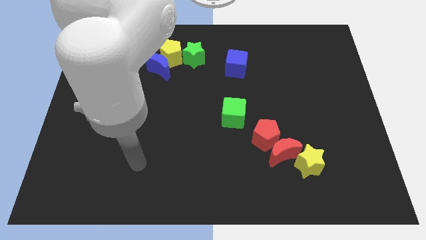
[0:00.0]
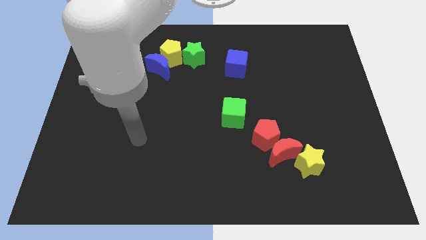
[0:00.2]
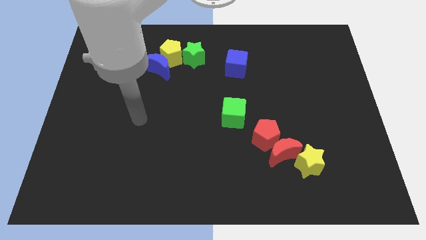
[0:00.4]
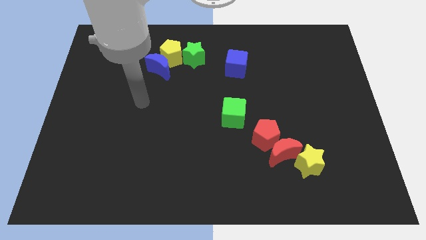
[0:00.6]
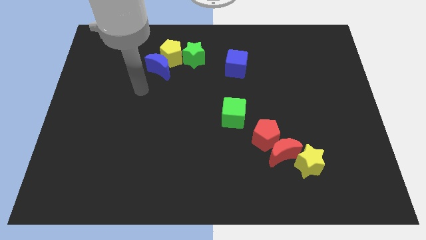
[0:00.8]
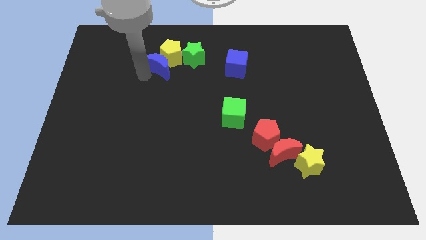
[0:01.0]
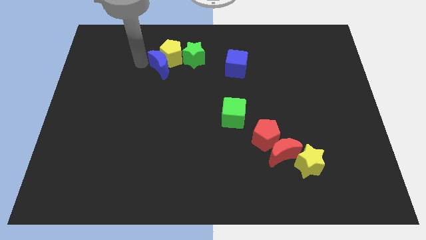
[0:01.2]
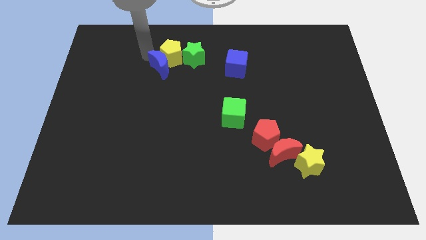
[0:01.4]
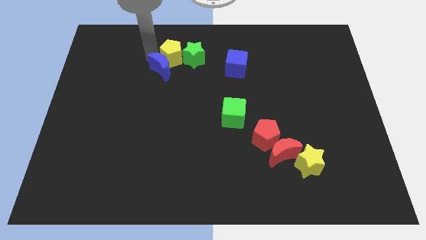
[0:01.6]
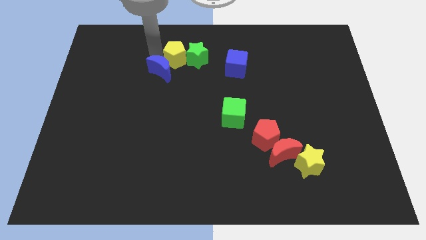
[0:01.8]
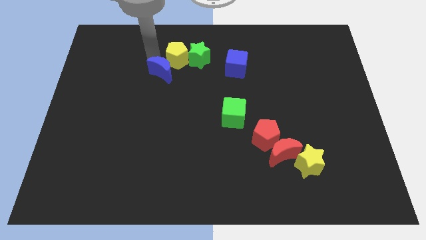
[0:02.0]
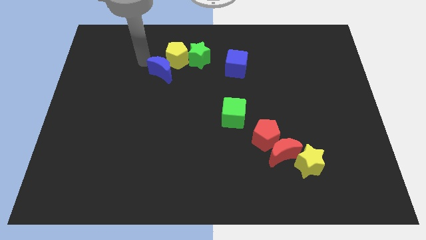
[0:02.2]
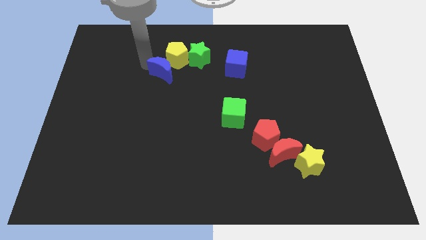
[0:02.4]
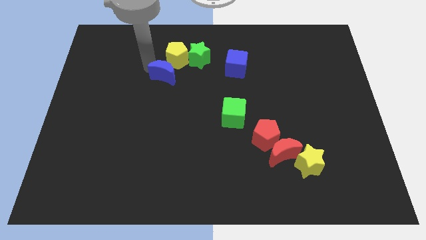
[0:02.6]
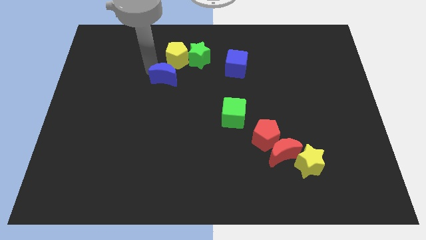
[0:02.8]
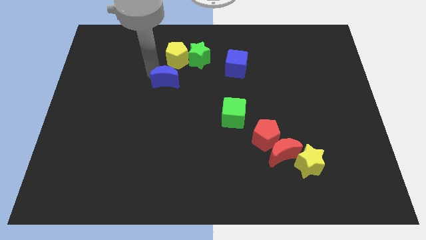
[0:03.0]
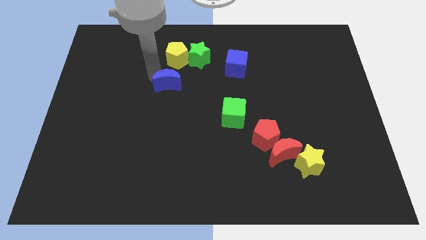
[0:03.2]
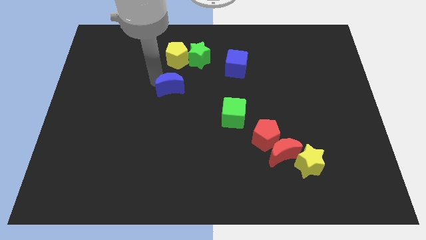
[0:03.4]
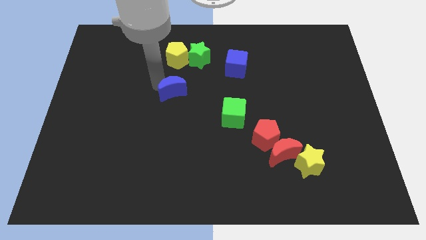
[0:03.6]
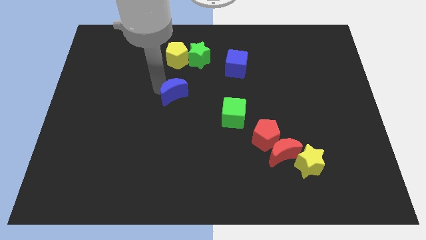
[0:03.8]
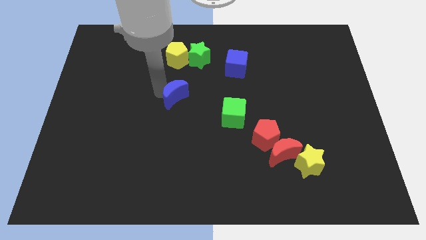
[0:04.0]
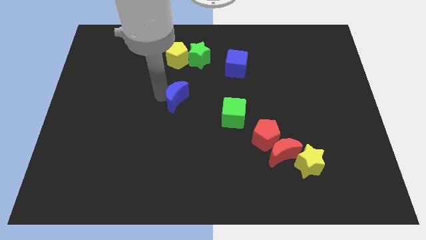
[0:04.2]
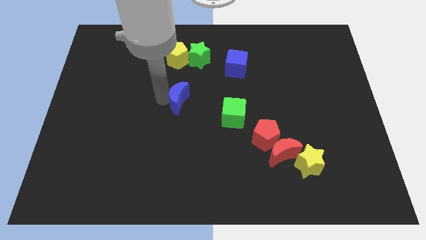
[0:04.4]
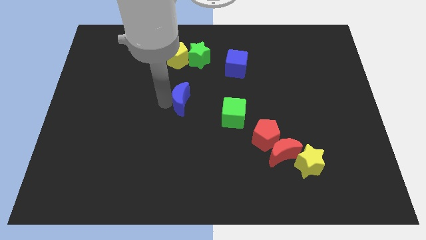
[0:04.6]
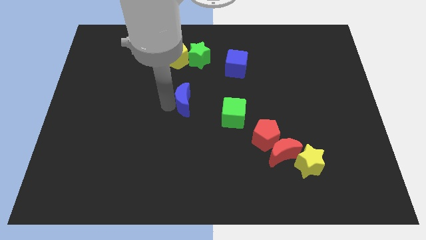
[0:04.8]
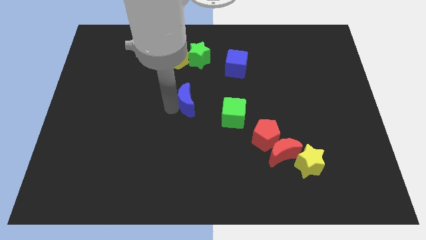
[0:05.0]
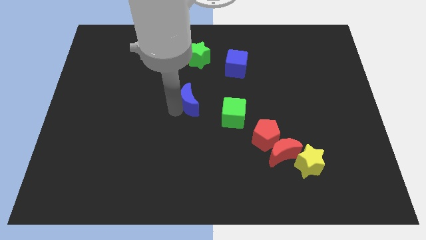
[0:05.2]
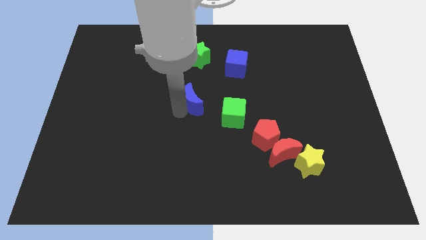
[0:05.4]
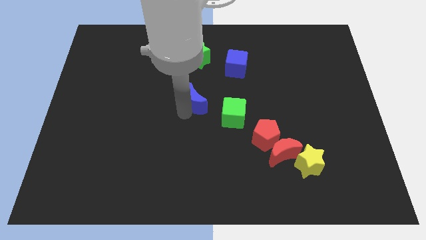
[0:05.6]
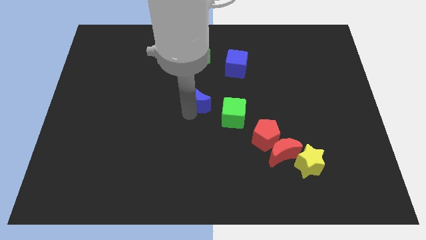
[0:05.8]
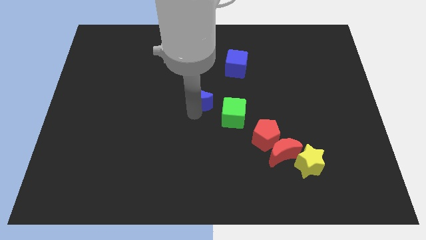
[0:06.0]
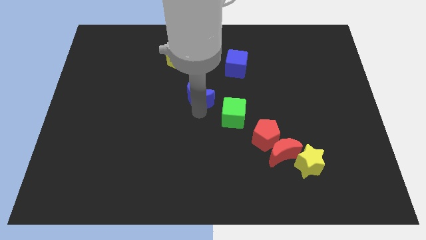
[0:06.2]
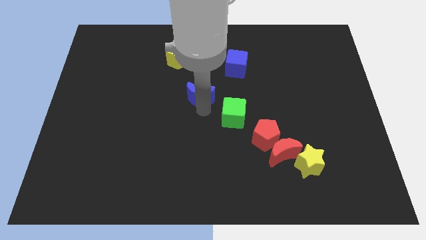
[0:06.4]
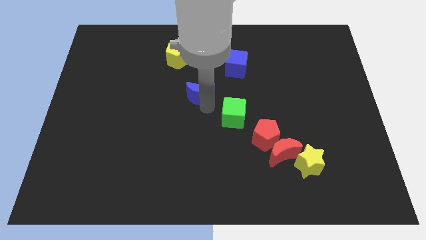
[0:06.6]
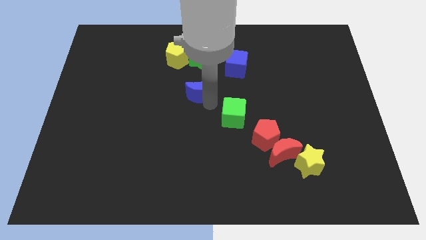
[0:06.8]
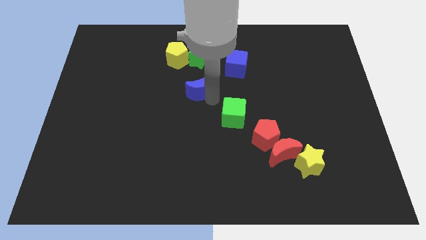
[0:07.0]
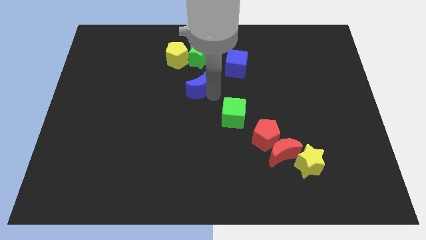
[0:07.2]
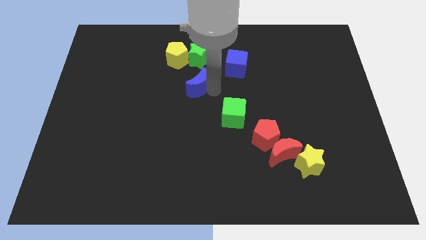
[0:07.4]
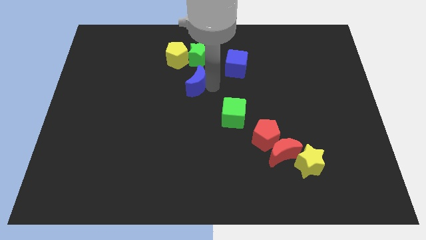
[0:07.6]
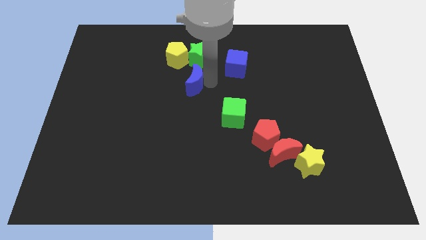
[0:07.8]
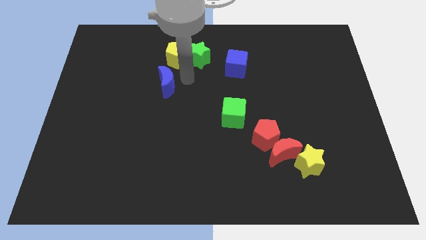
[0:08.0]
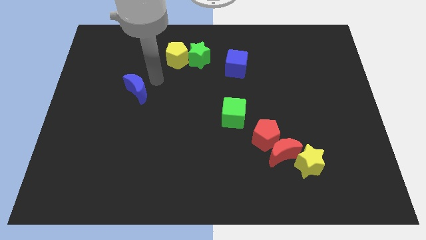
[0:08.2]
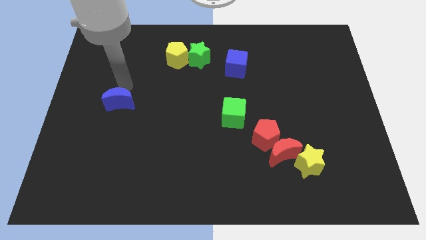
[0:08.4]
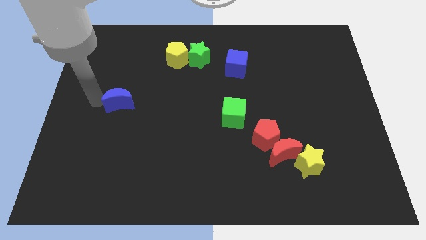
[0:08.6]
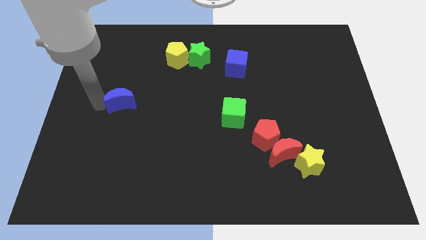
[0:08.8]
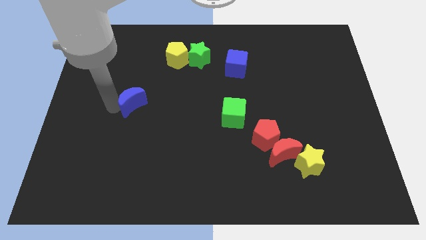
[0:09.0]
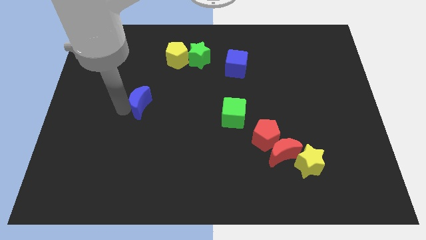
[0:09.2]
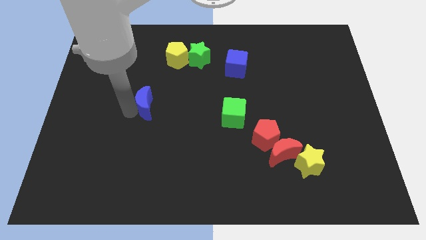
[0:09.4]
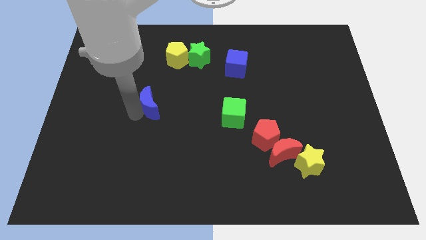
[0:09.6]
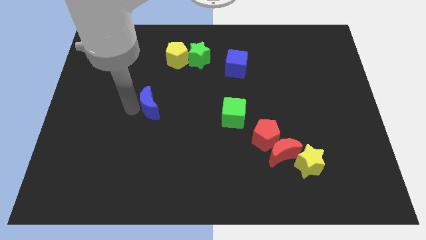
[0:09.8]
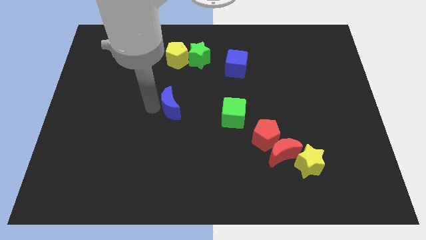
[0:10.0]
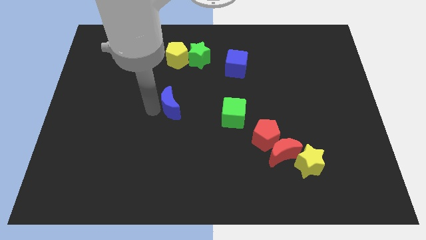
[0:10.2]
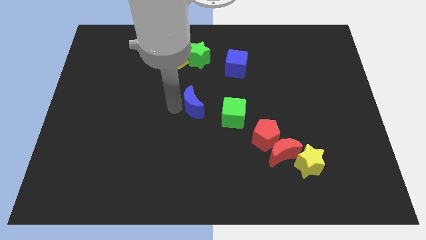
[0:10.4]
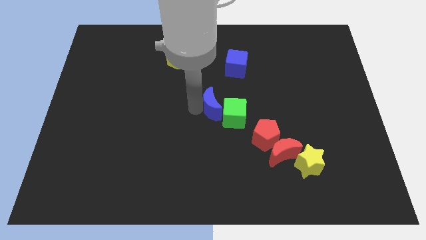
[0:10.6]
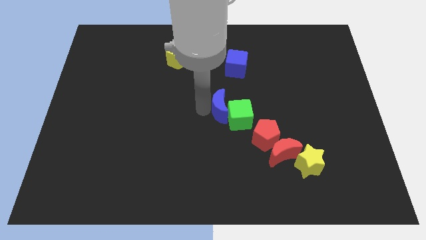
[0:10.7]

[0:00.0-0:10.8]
put the blue moon to the bottom side of the blue cube

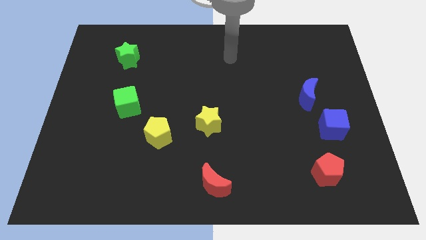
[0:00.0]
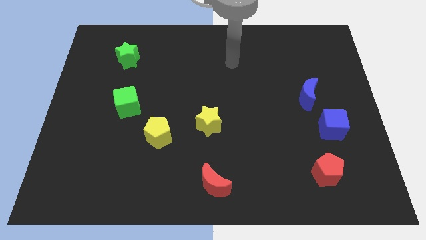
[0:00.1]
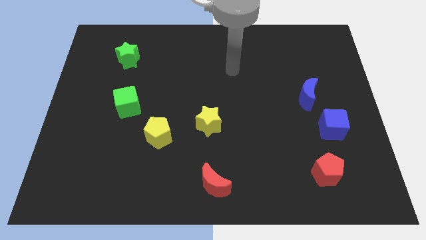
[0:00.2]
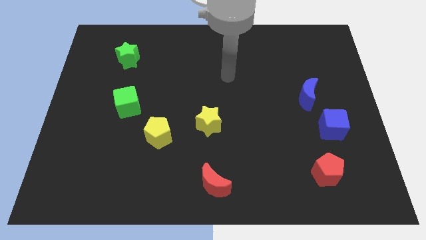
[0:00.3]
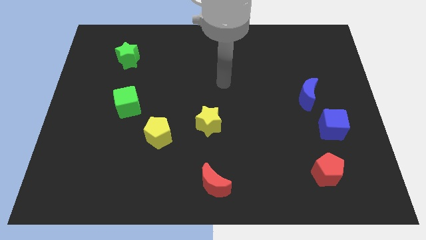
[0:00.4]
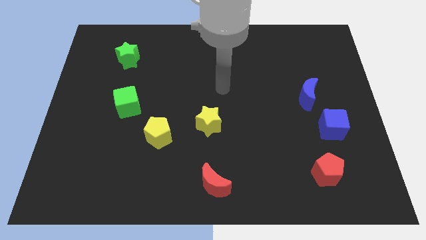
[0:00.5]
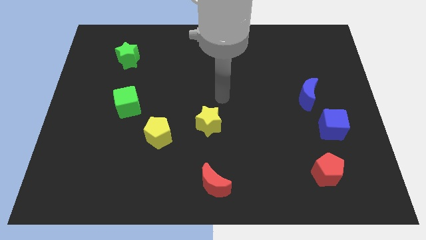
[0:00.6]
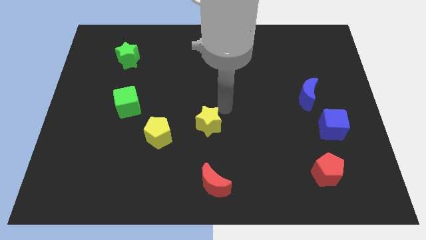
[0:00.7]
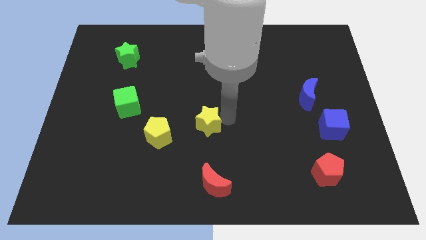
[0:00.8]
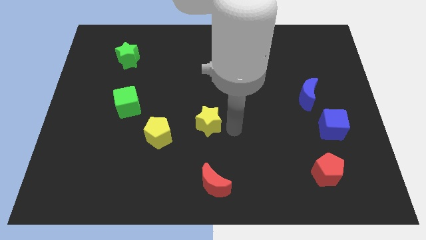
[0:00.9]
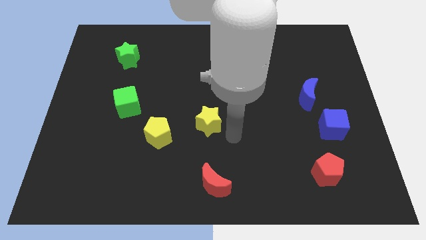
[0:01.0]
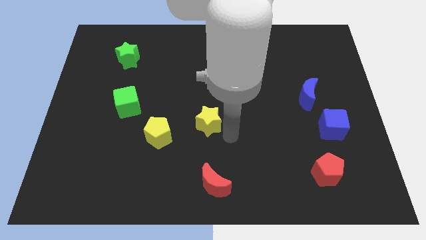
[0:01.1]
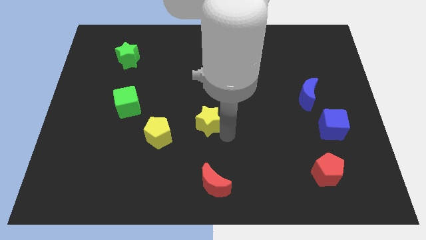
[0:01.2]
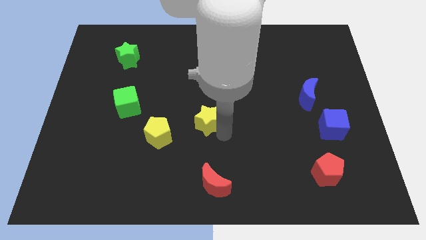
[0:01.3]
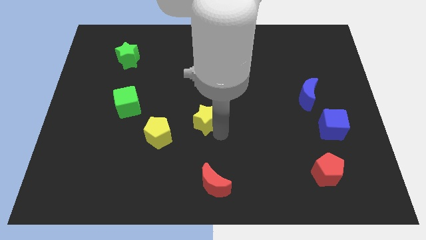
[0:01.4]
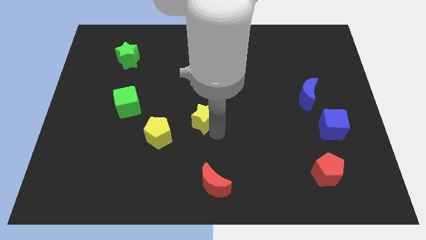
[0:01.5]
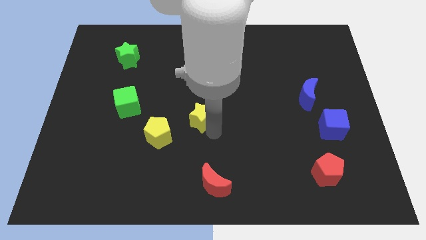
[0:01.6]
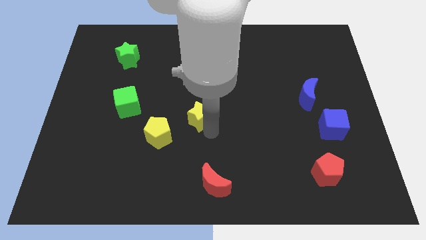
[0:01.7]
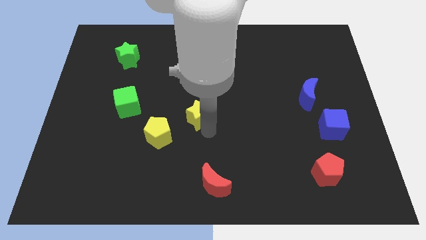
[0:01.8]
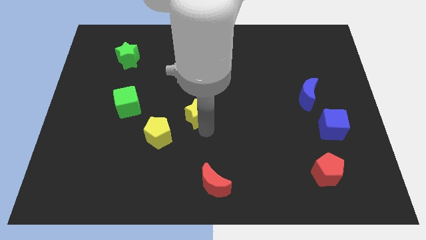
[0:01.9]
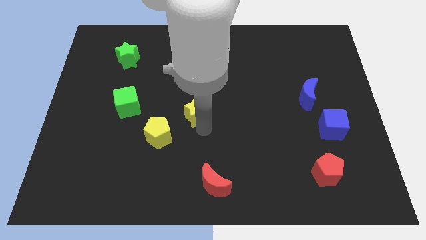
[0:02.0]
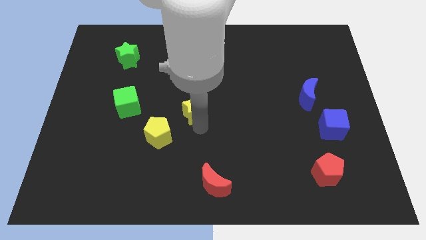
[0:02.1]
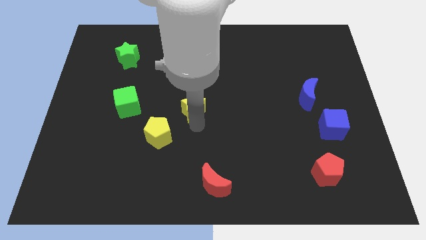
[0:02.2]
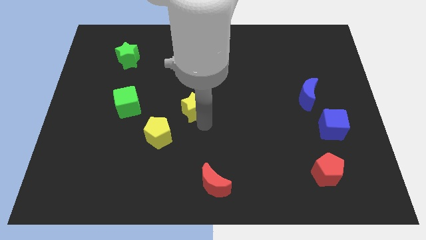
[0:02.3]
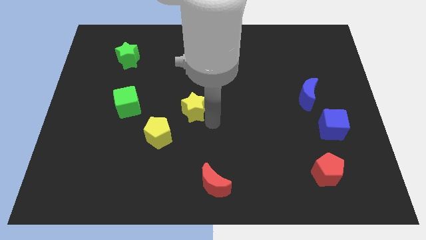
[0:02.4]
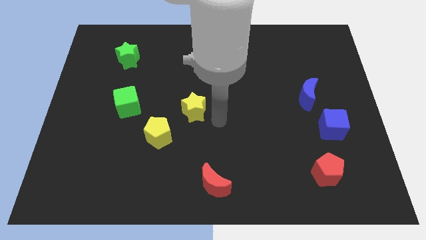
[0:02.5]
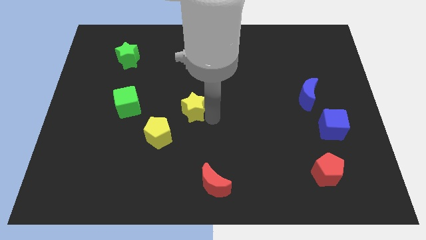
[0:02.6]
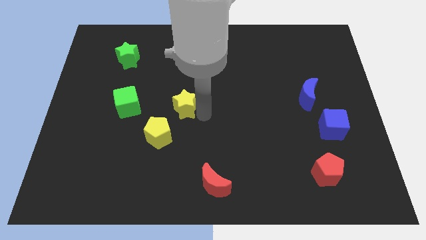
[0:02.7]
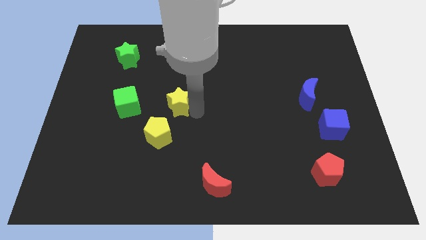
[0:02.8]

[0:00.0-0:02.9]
slide the yellow star above the yellow pentagon
